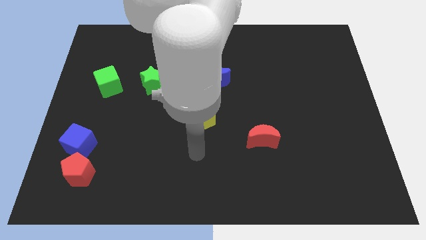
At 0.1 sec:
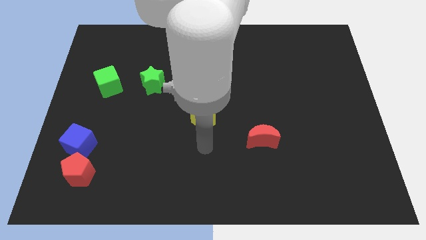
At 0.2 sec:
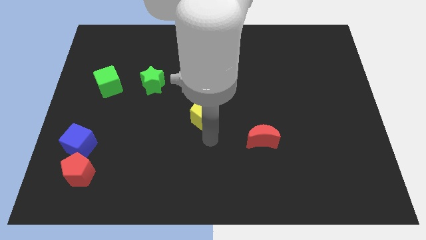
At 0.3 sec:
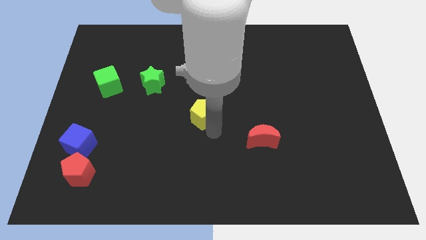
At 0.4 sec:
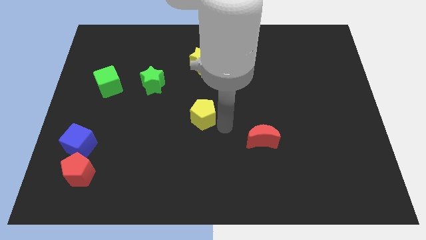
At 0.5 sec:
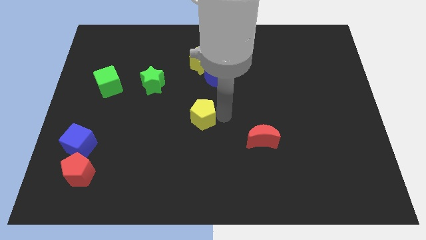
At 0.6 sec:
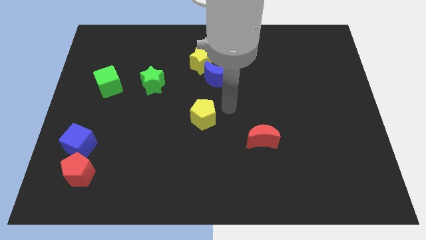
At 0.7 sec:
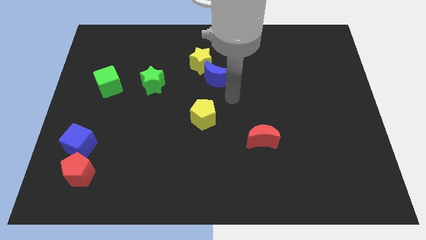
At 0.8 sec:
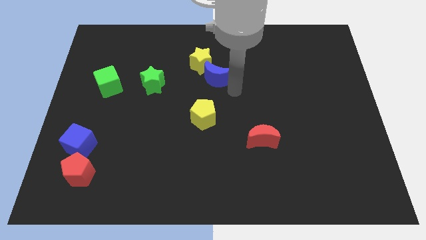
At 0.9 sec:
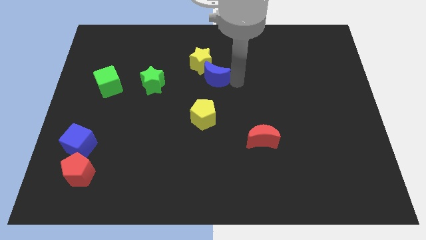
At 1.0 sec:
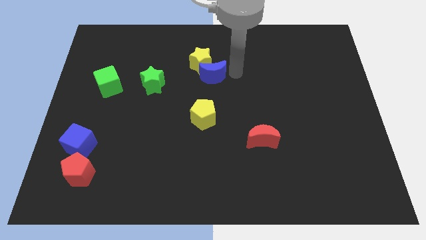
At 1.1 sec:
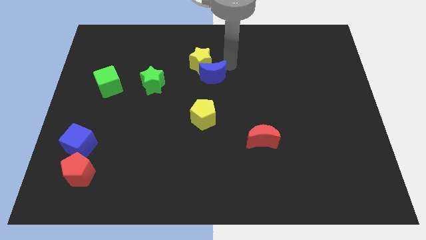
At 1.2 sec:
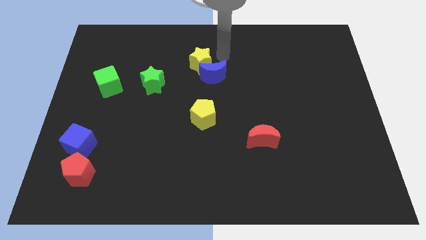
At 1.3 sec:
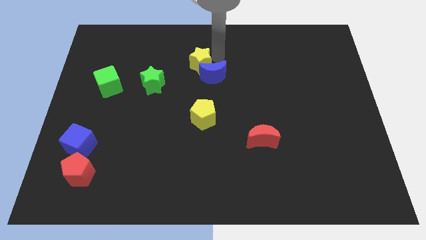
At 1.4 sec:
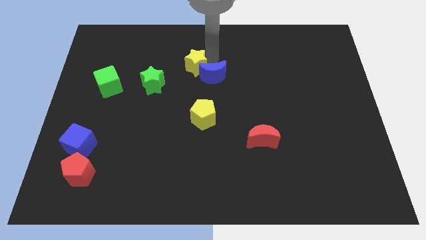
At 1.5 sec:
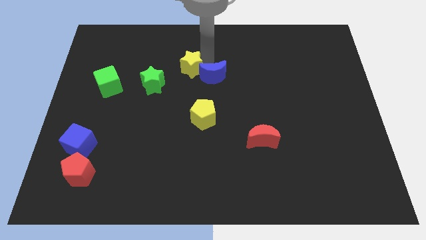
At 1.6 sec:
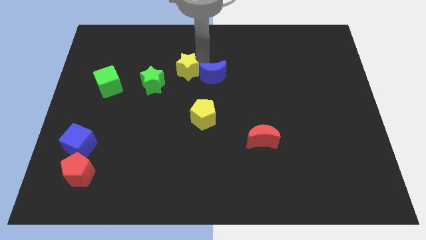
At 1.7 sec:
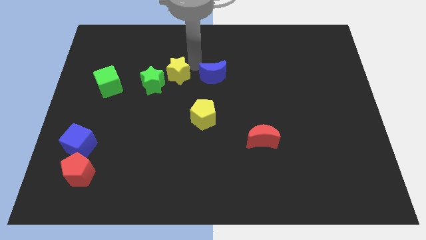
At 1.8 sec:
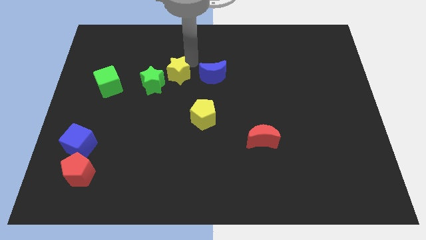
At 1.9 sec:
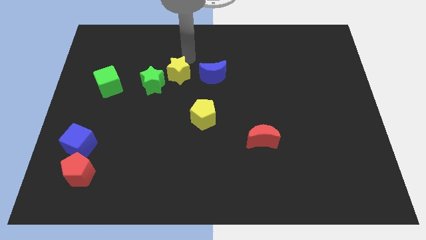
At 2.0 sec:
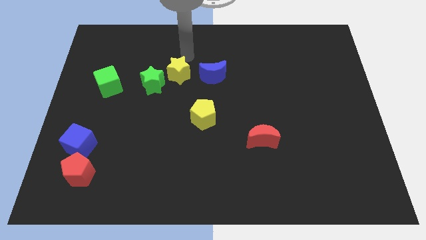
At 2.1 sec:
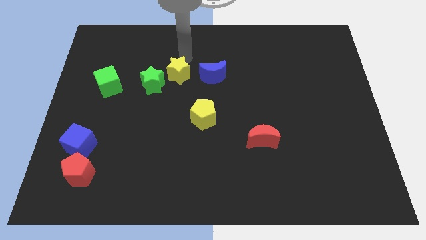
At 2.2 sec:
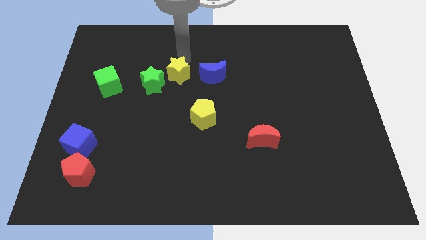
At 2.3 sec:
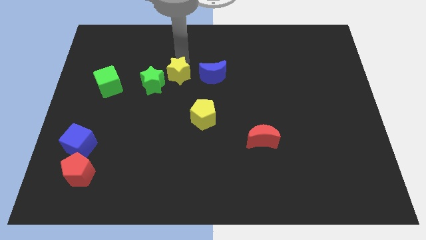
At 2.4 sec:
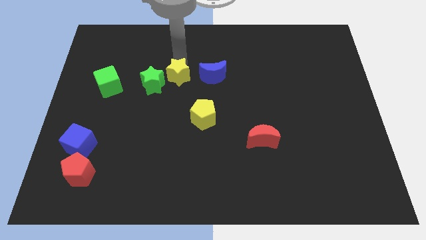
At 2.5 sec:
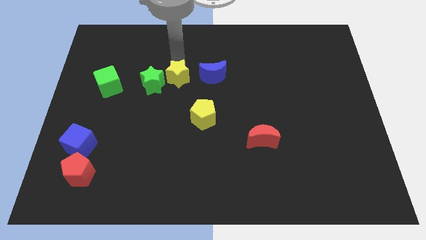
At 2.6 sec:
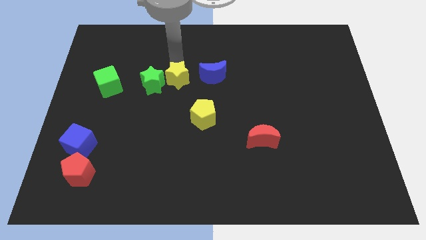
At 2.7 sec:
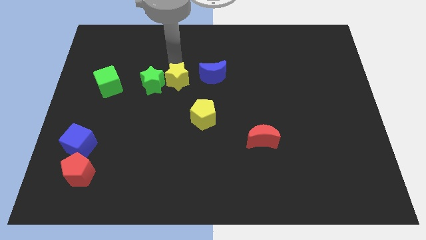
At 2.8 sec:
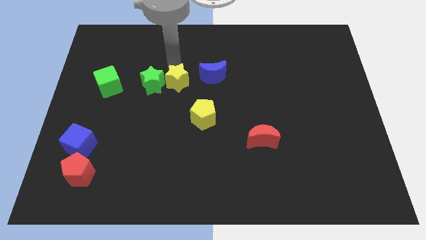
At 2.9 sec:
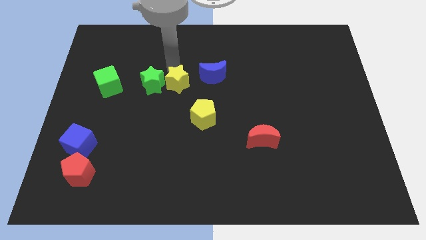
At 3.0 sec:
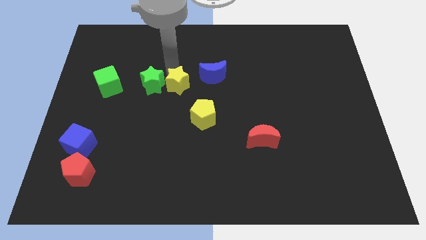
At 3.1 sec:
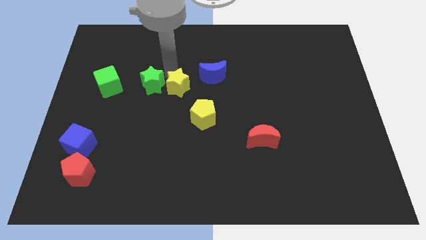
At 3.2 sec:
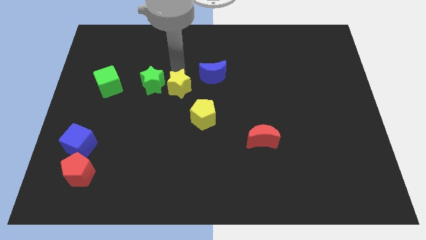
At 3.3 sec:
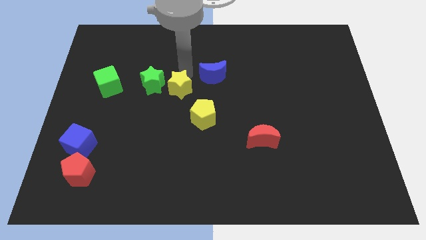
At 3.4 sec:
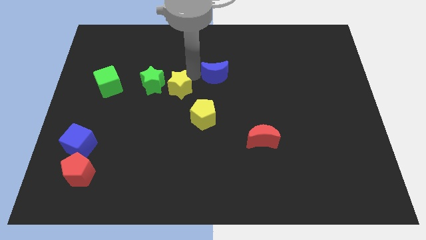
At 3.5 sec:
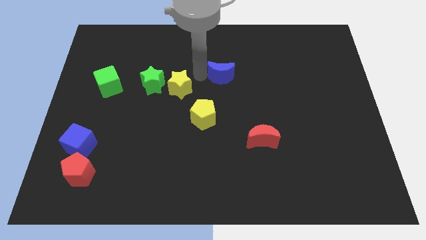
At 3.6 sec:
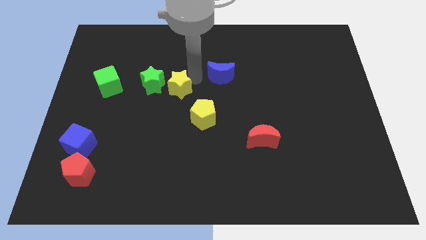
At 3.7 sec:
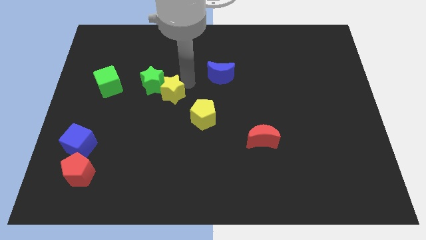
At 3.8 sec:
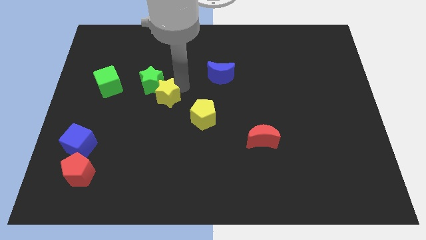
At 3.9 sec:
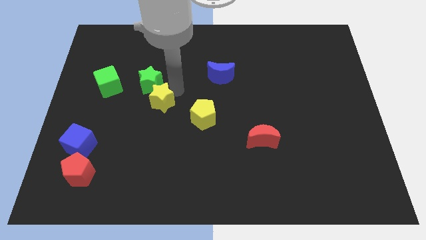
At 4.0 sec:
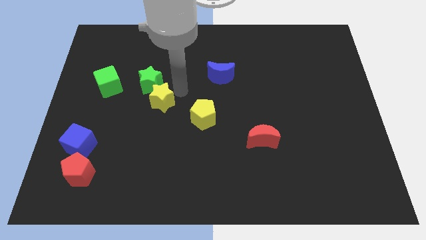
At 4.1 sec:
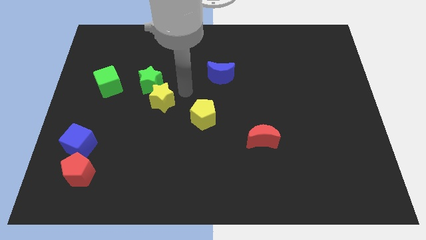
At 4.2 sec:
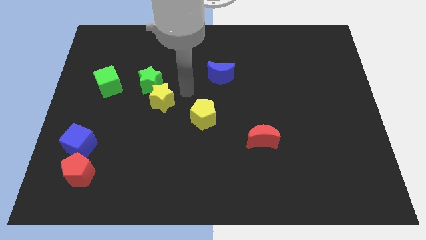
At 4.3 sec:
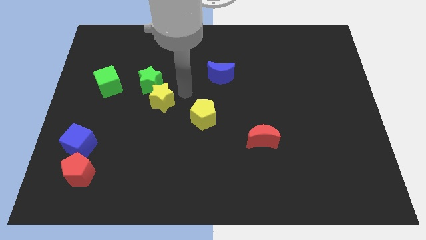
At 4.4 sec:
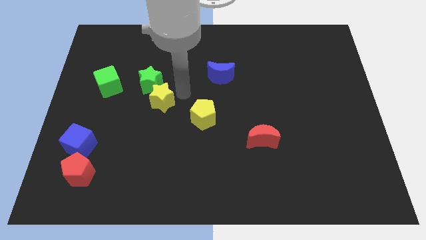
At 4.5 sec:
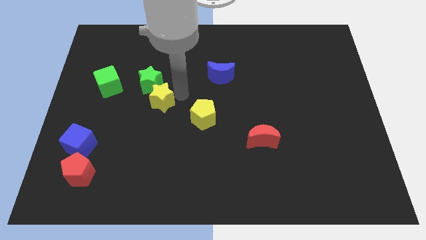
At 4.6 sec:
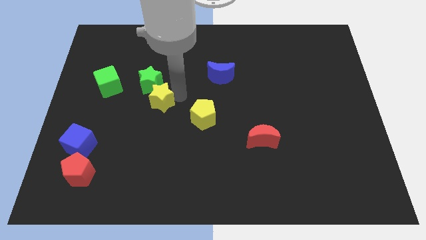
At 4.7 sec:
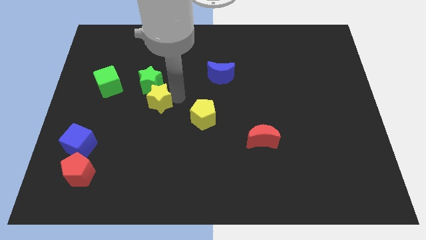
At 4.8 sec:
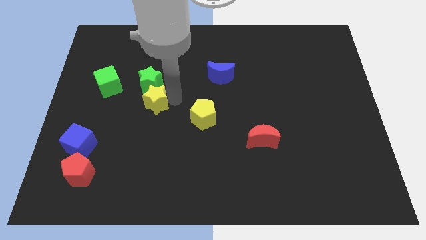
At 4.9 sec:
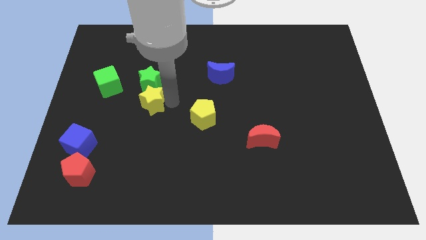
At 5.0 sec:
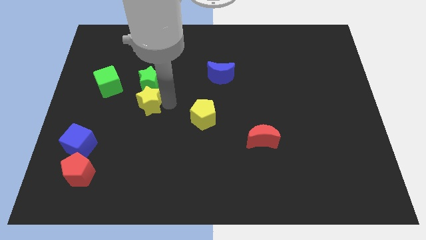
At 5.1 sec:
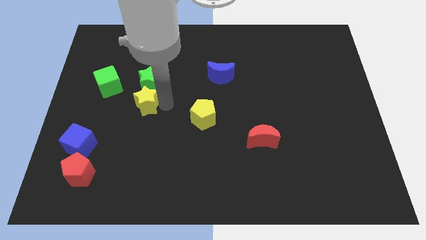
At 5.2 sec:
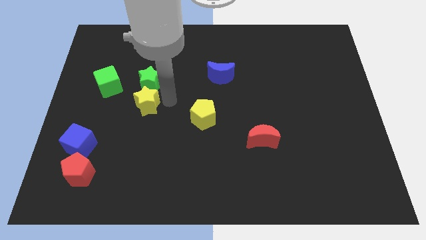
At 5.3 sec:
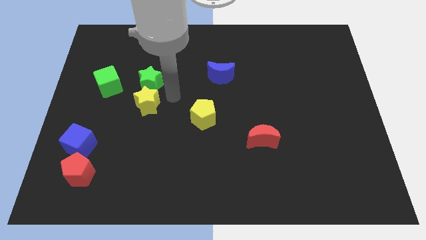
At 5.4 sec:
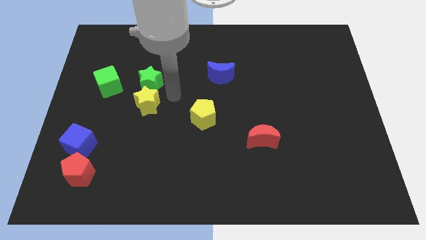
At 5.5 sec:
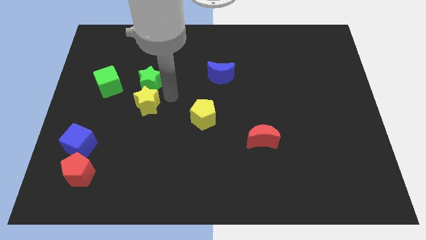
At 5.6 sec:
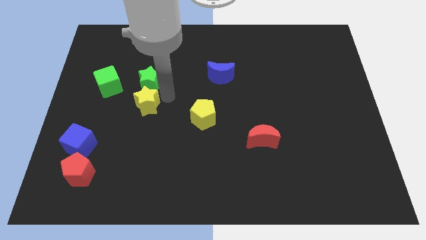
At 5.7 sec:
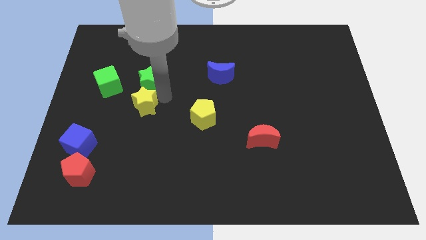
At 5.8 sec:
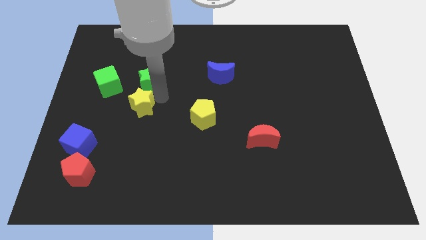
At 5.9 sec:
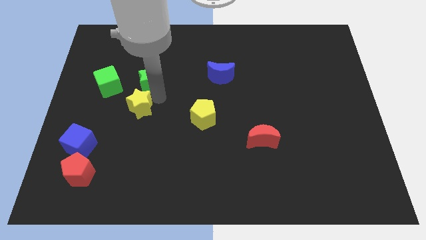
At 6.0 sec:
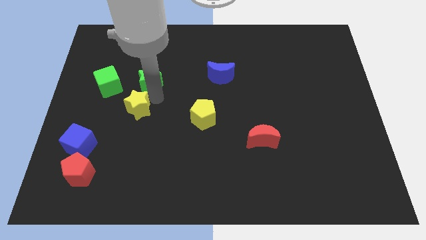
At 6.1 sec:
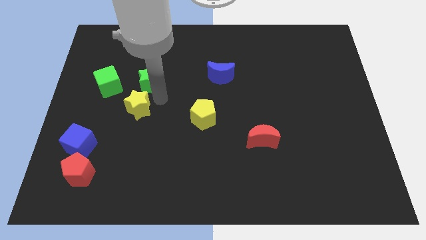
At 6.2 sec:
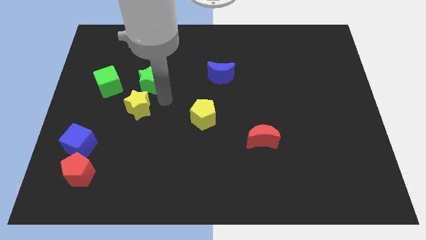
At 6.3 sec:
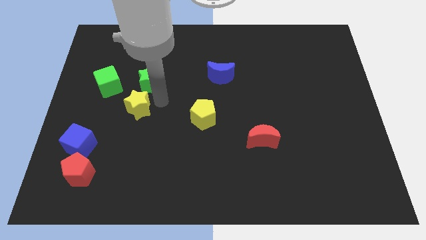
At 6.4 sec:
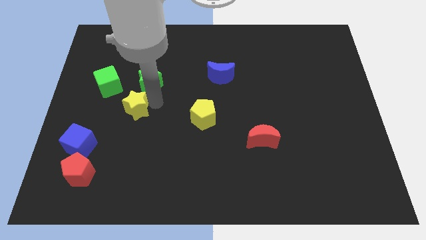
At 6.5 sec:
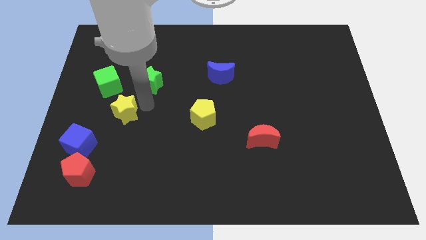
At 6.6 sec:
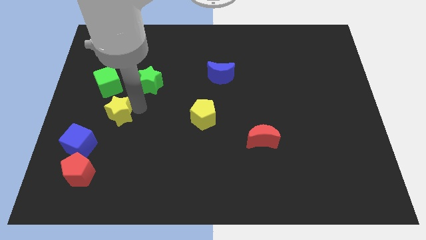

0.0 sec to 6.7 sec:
move the yellow star to the bottom side of the green cube

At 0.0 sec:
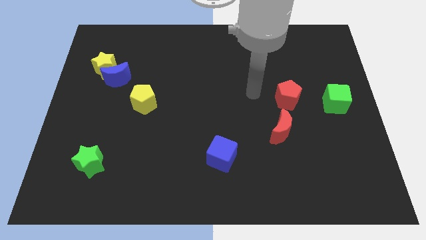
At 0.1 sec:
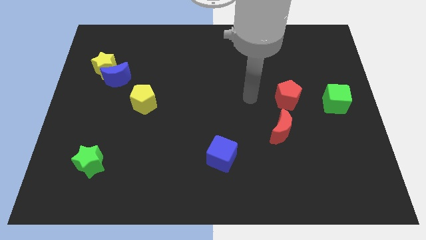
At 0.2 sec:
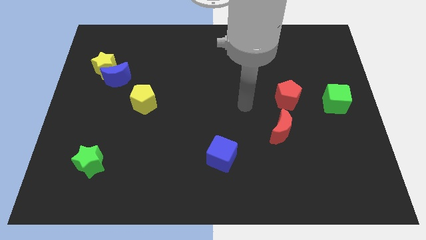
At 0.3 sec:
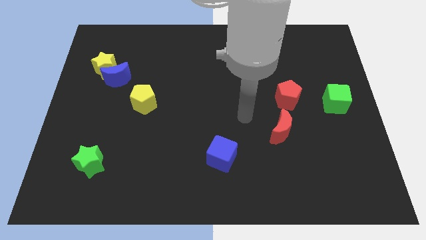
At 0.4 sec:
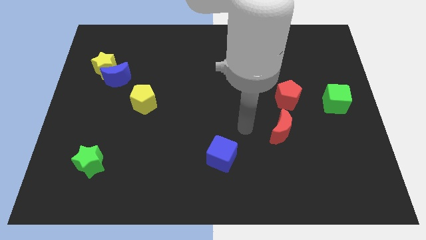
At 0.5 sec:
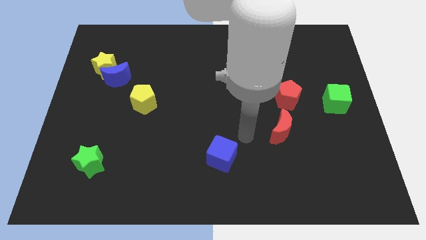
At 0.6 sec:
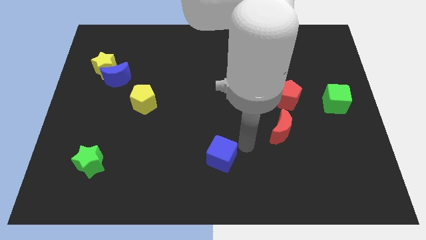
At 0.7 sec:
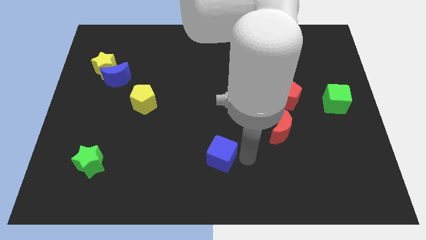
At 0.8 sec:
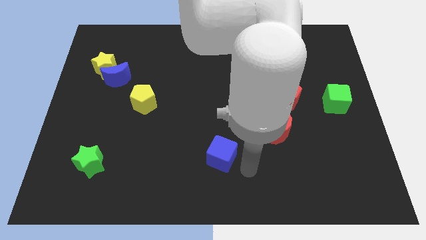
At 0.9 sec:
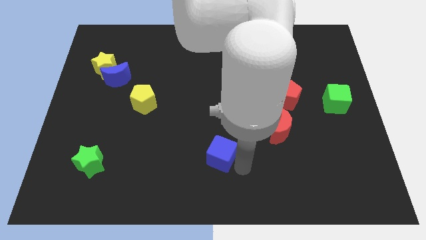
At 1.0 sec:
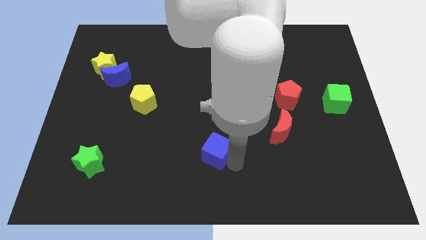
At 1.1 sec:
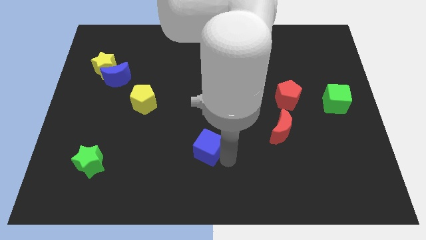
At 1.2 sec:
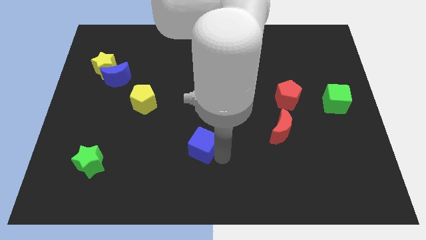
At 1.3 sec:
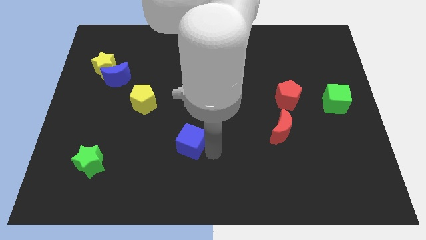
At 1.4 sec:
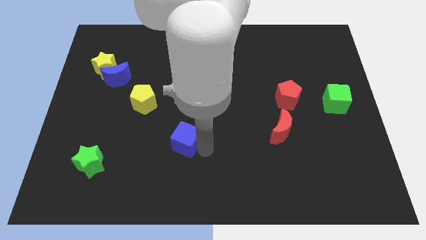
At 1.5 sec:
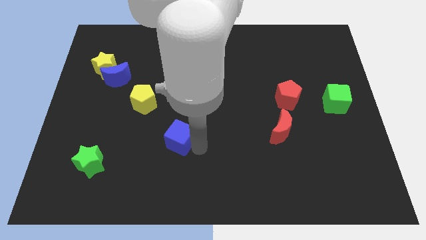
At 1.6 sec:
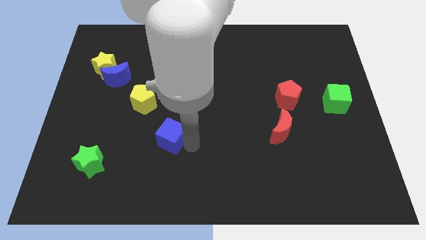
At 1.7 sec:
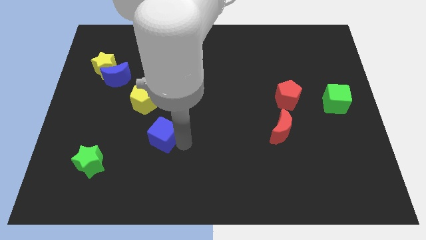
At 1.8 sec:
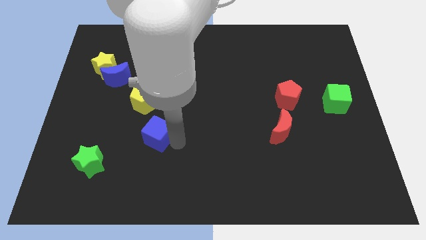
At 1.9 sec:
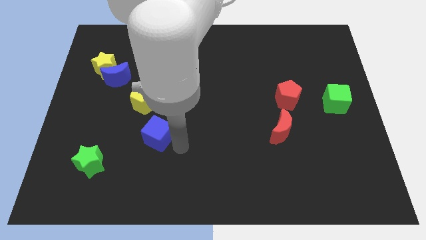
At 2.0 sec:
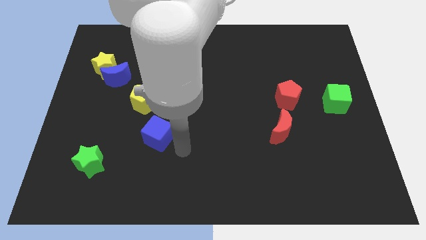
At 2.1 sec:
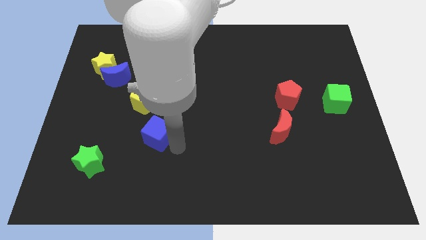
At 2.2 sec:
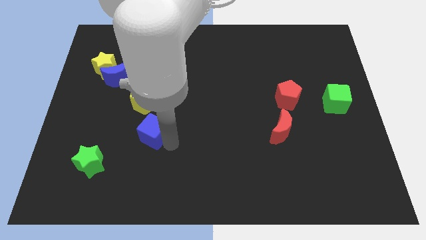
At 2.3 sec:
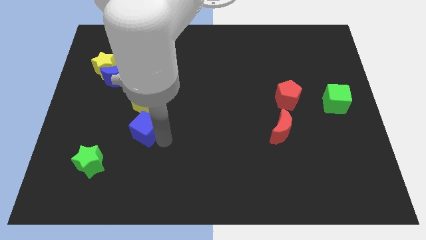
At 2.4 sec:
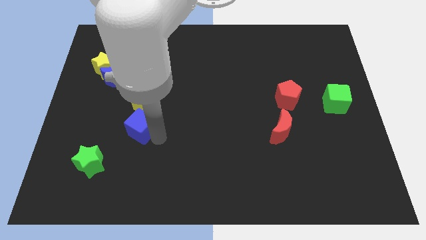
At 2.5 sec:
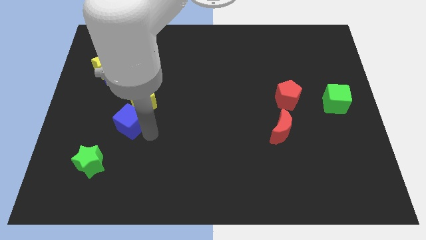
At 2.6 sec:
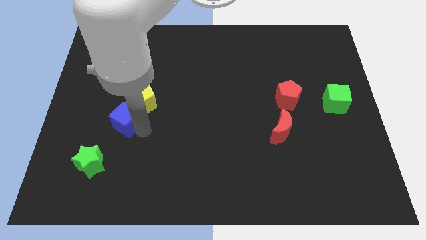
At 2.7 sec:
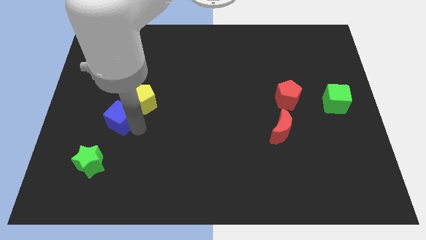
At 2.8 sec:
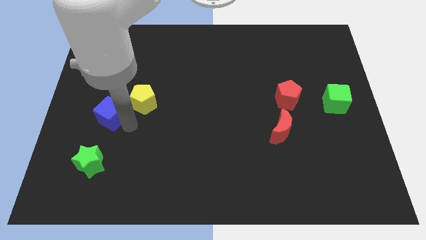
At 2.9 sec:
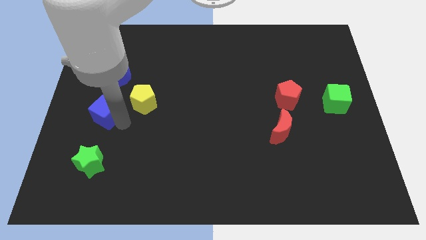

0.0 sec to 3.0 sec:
put the blue cube to the bottom of the yellow star
